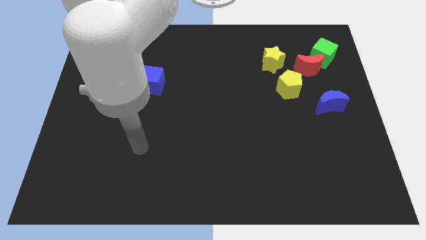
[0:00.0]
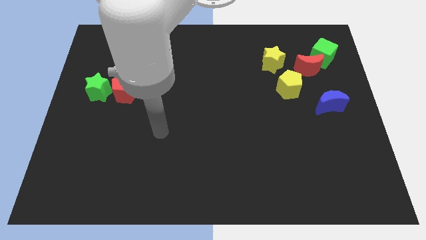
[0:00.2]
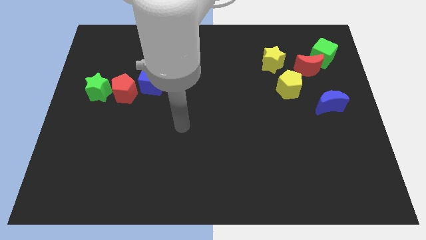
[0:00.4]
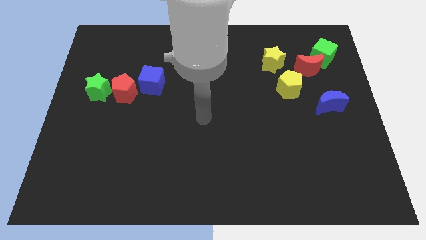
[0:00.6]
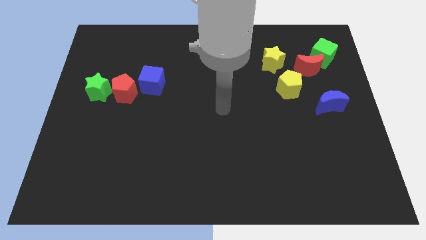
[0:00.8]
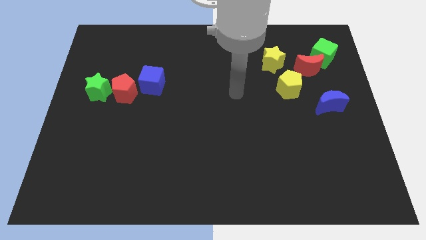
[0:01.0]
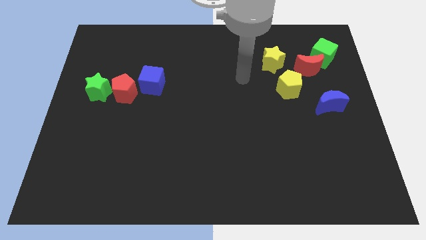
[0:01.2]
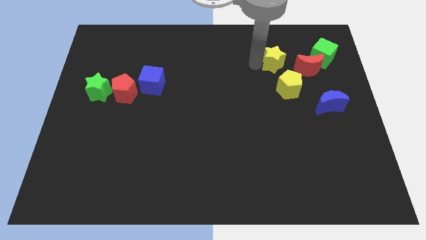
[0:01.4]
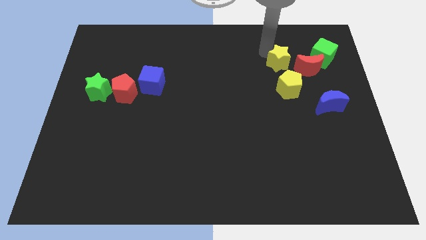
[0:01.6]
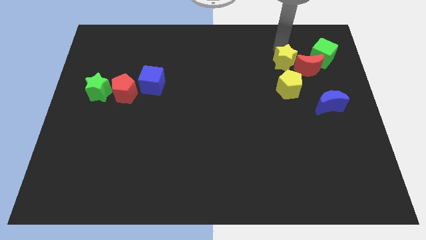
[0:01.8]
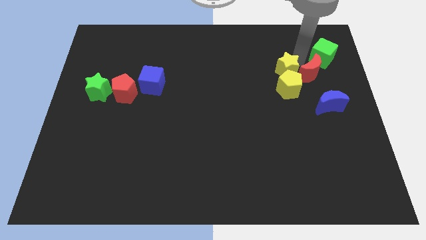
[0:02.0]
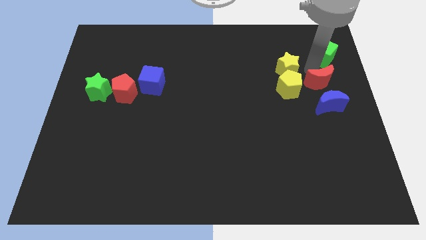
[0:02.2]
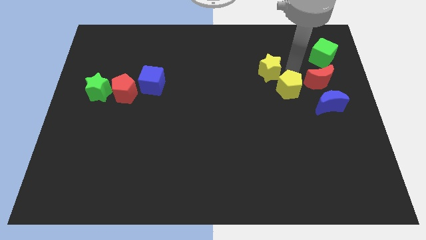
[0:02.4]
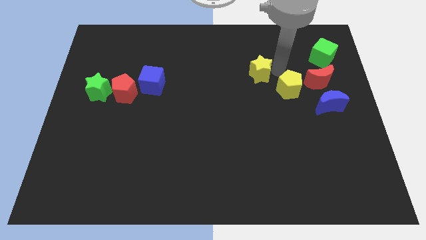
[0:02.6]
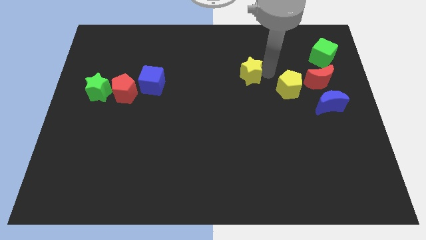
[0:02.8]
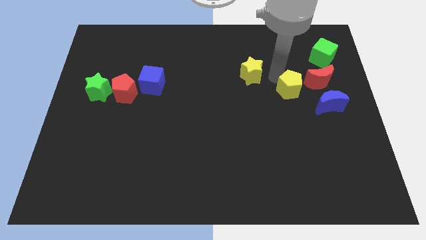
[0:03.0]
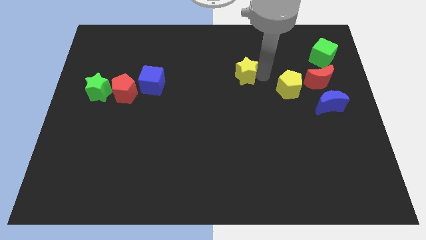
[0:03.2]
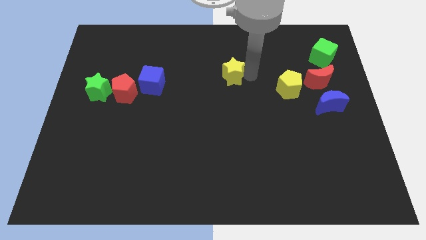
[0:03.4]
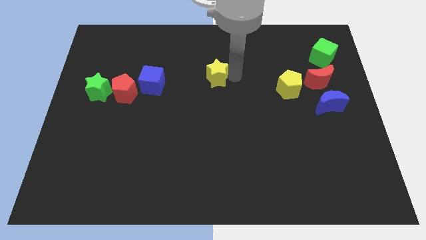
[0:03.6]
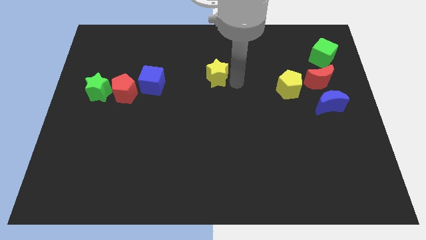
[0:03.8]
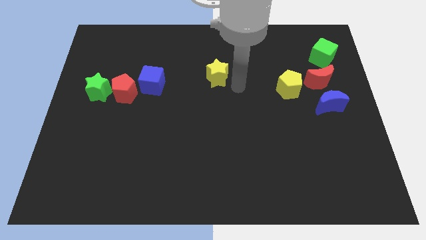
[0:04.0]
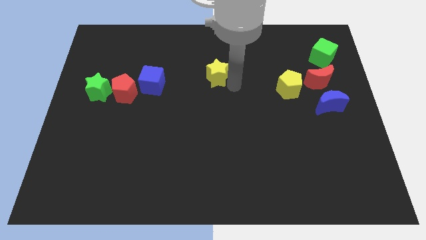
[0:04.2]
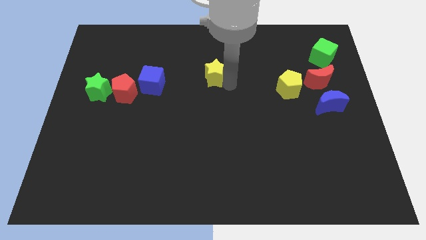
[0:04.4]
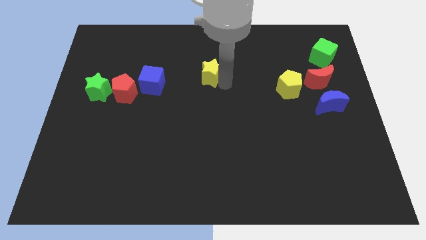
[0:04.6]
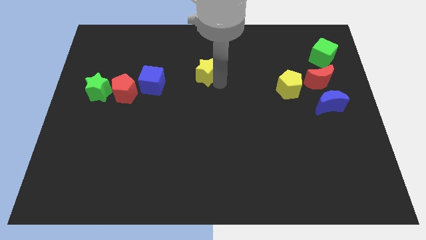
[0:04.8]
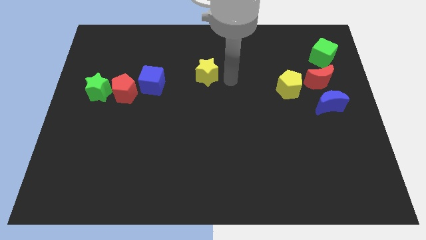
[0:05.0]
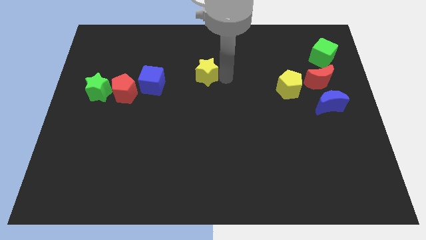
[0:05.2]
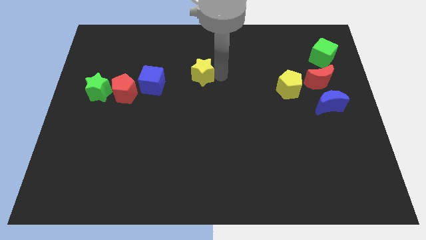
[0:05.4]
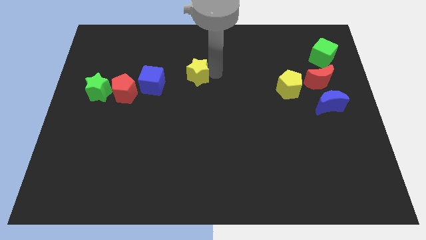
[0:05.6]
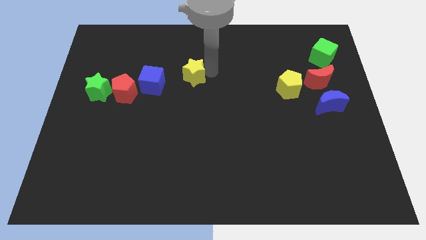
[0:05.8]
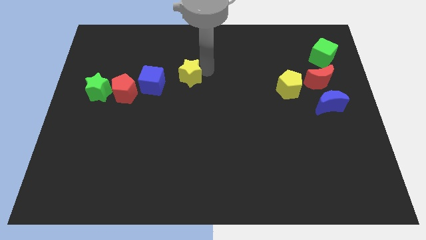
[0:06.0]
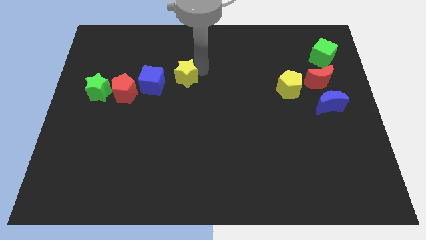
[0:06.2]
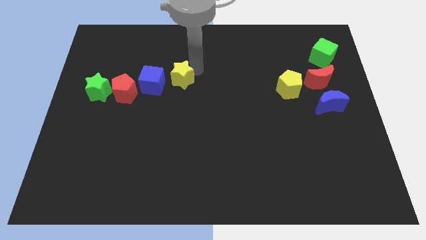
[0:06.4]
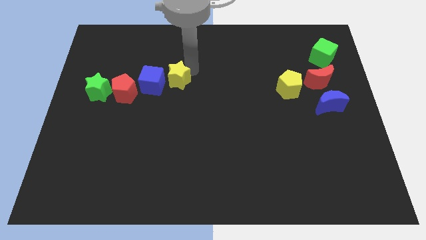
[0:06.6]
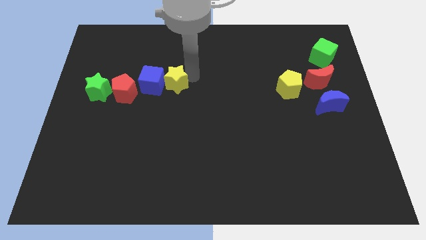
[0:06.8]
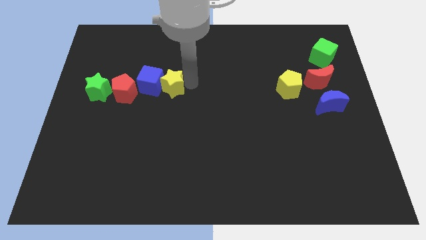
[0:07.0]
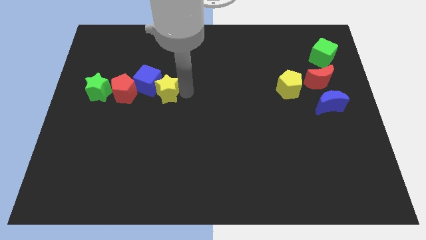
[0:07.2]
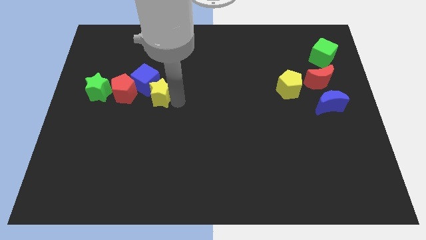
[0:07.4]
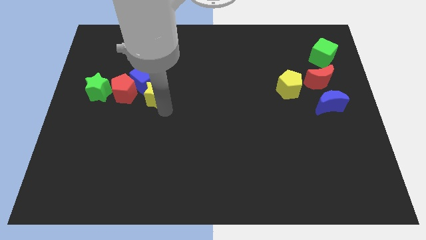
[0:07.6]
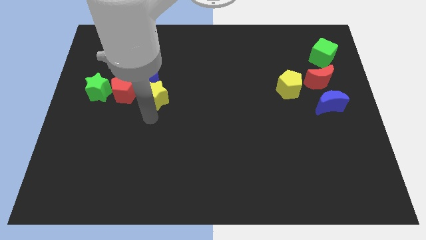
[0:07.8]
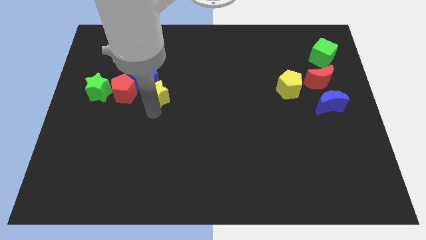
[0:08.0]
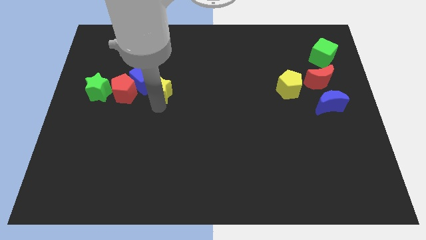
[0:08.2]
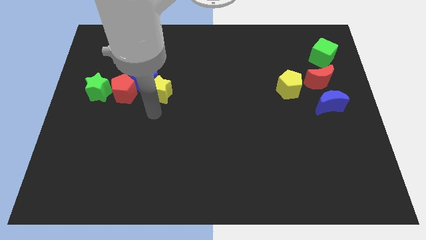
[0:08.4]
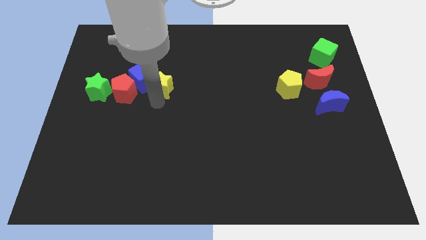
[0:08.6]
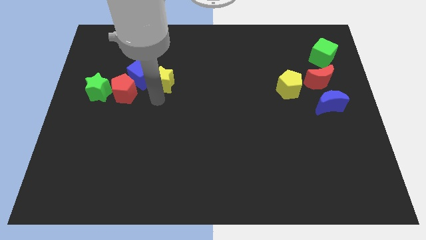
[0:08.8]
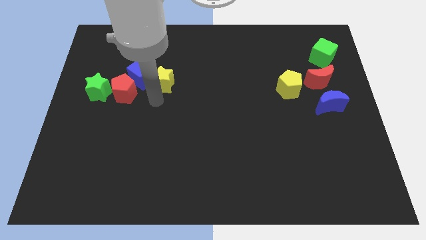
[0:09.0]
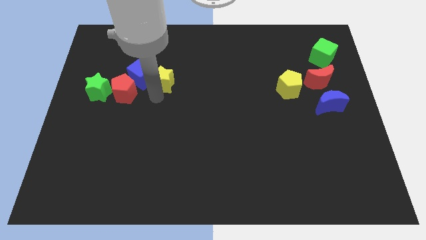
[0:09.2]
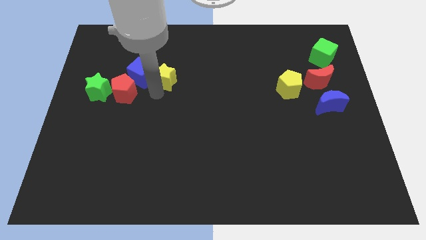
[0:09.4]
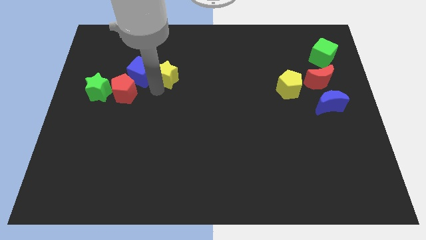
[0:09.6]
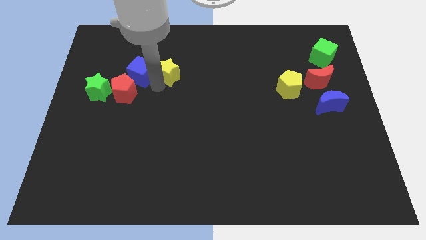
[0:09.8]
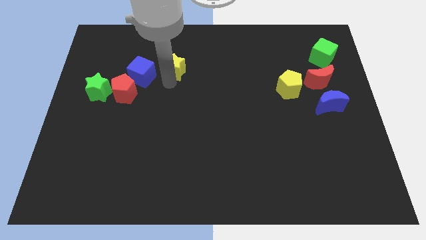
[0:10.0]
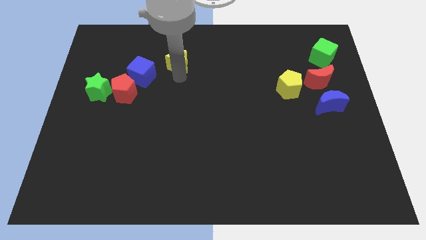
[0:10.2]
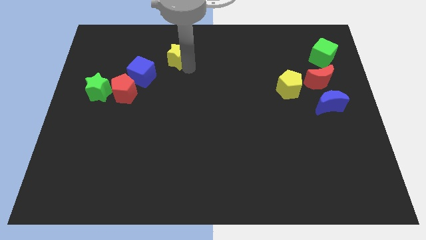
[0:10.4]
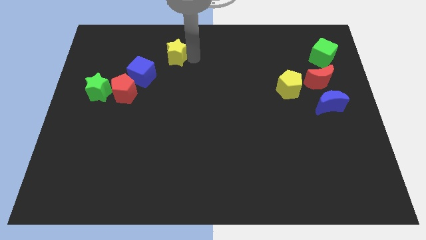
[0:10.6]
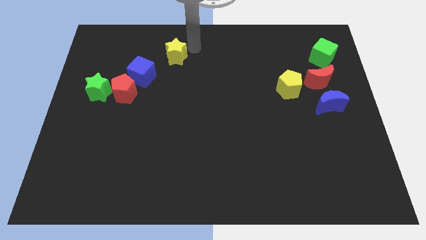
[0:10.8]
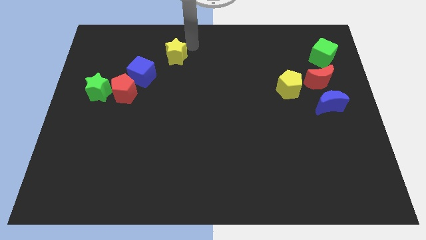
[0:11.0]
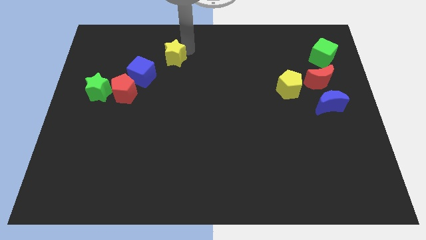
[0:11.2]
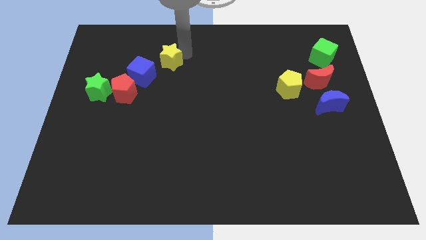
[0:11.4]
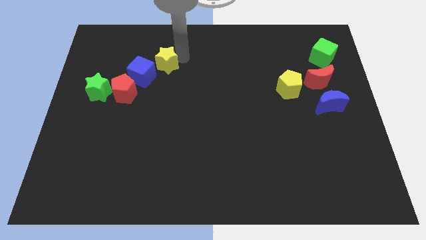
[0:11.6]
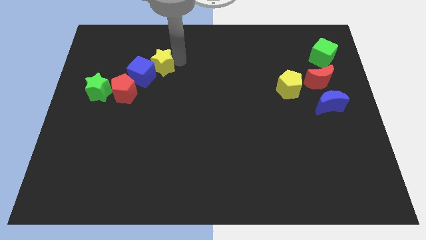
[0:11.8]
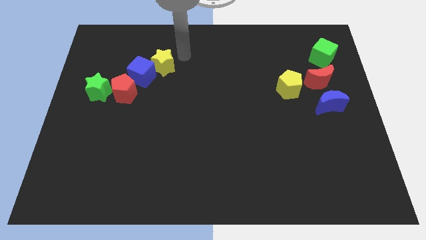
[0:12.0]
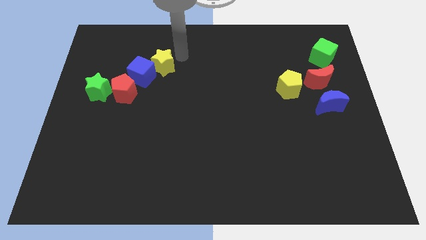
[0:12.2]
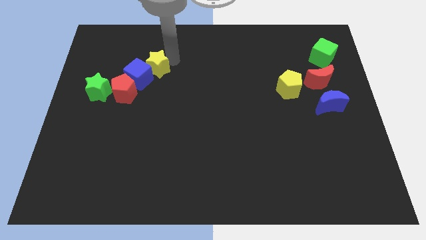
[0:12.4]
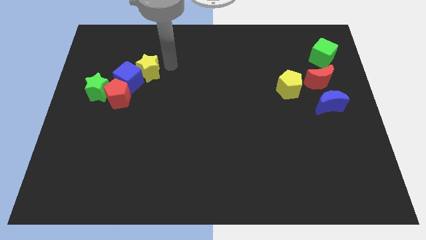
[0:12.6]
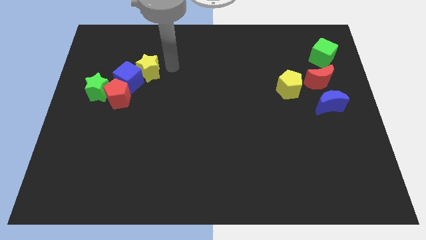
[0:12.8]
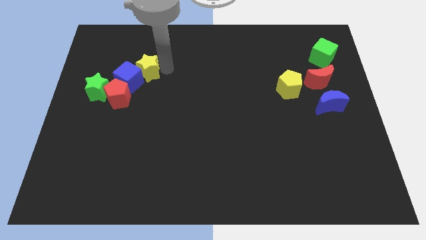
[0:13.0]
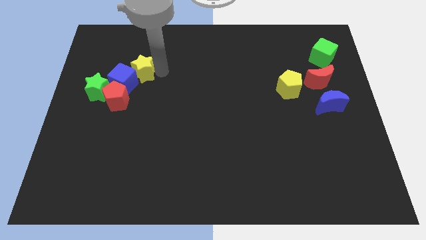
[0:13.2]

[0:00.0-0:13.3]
push the yellow star diagonally up and to the right of the green star

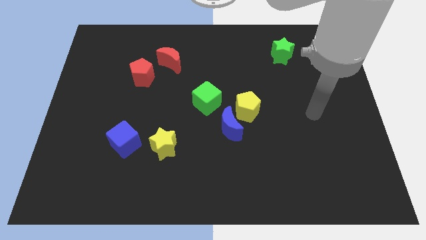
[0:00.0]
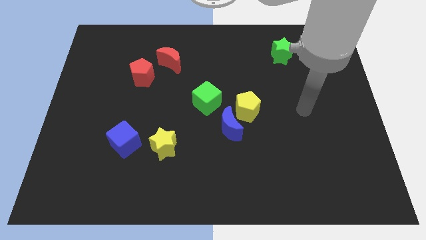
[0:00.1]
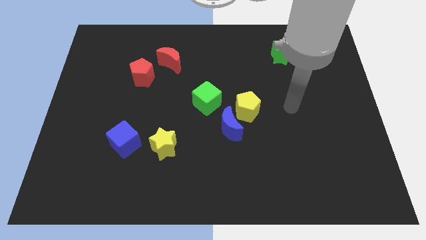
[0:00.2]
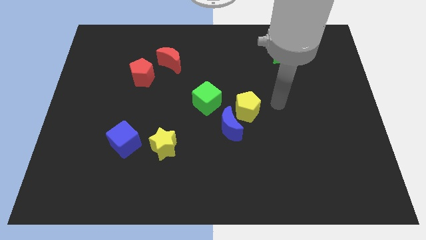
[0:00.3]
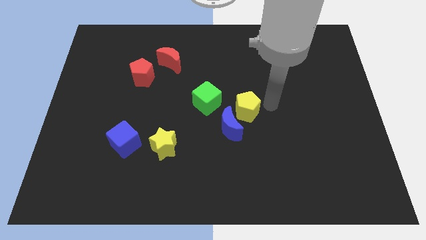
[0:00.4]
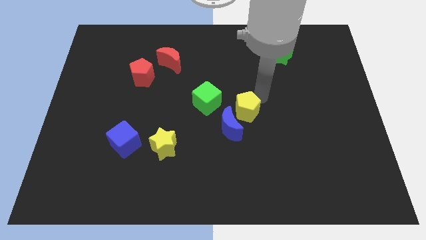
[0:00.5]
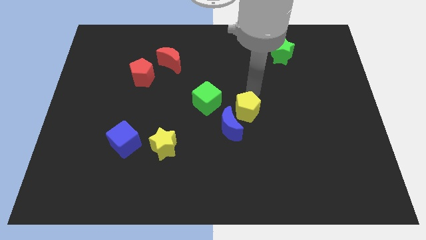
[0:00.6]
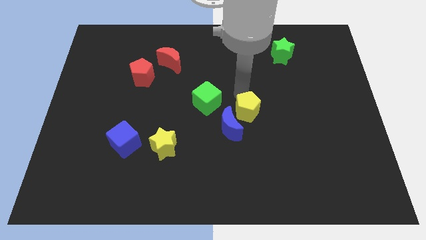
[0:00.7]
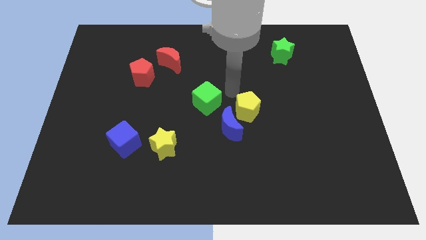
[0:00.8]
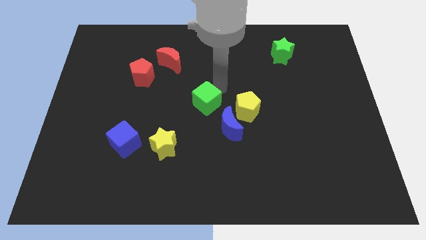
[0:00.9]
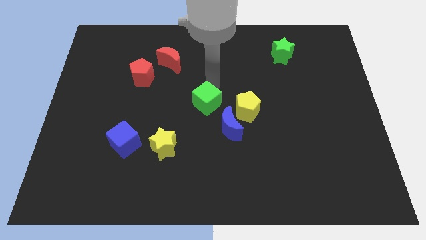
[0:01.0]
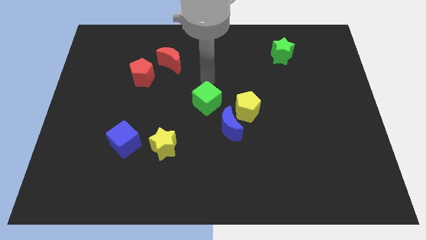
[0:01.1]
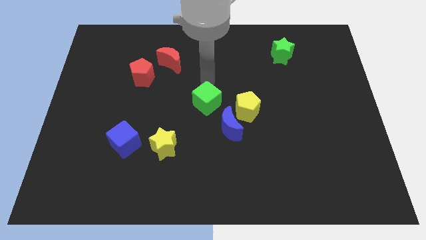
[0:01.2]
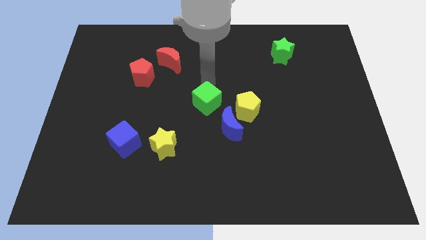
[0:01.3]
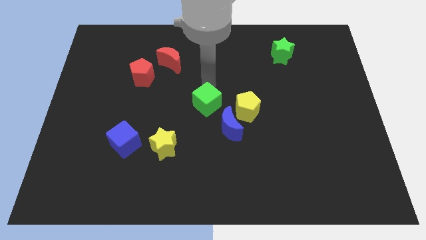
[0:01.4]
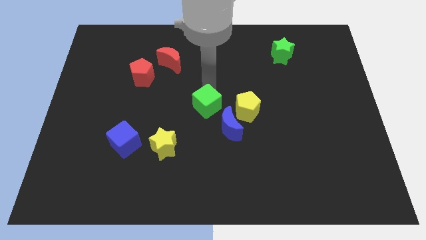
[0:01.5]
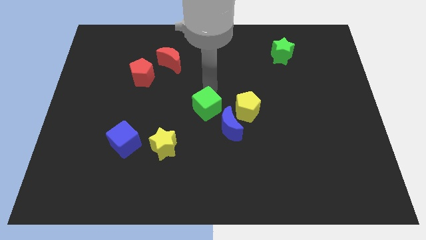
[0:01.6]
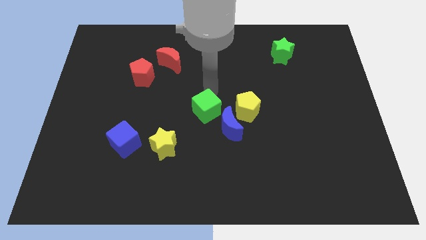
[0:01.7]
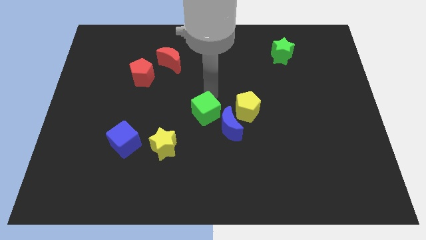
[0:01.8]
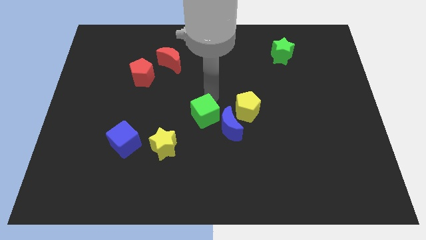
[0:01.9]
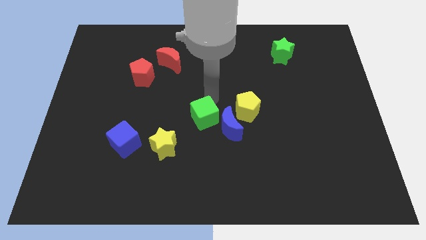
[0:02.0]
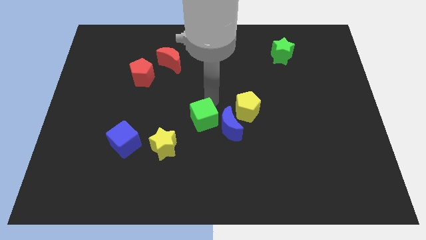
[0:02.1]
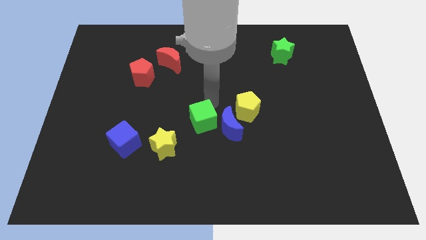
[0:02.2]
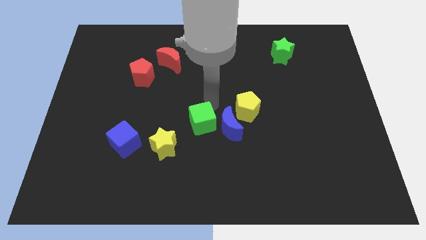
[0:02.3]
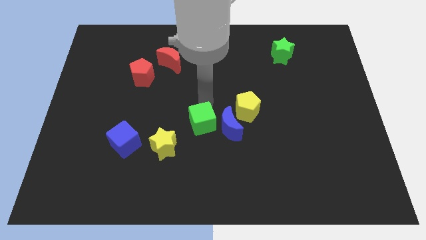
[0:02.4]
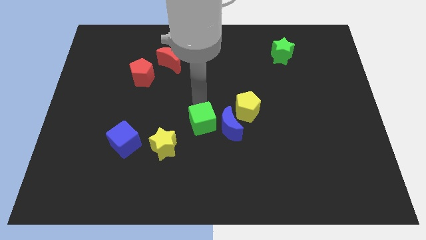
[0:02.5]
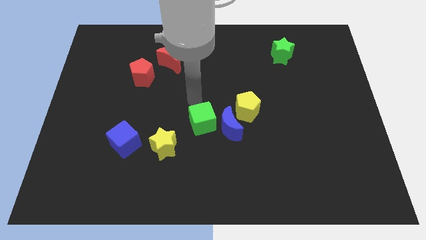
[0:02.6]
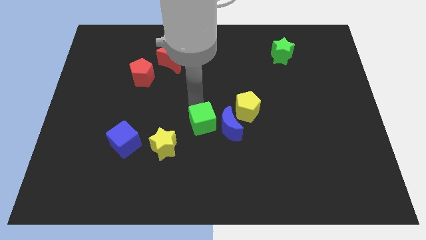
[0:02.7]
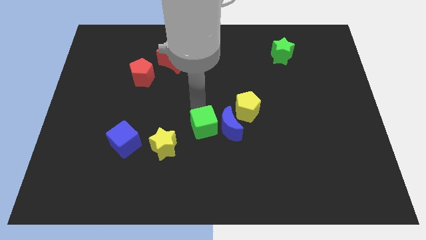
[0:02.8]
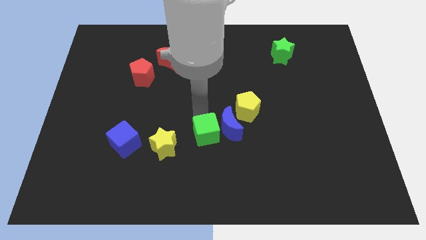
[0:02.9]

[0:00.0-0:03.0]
slide the green cube to the right of the yellow star
